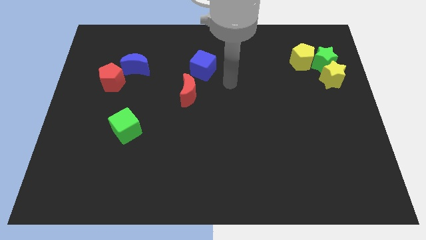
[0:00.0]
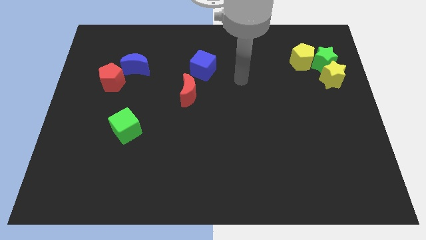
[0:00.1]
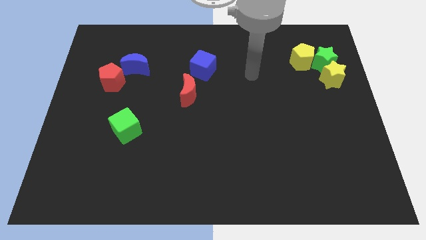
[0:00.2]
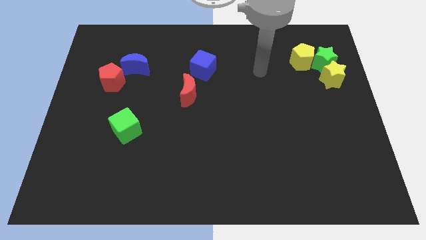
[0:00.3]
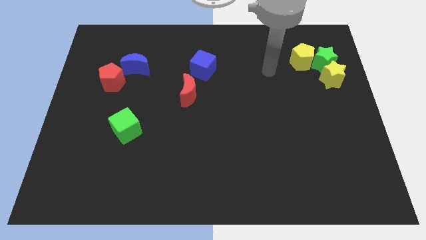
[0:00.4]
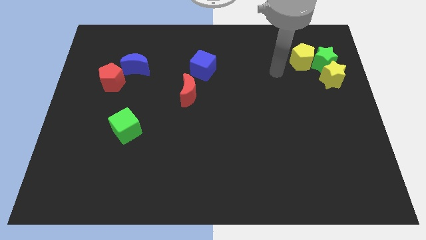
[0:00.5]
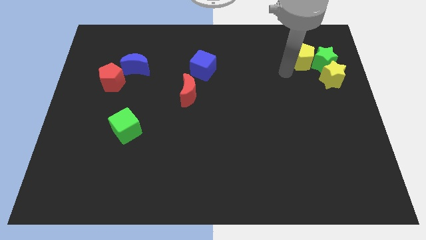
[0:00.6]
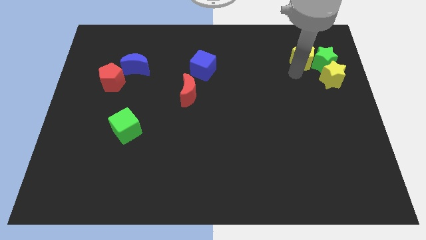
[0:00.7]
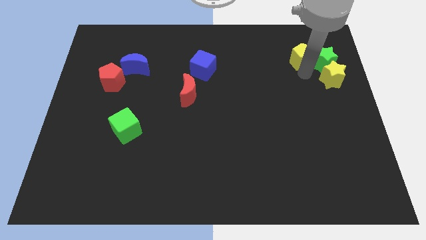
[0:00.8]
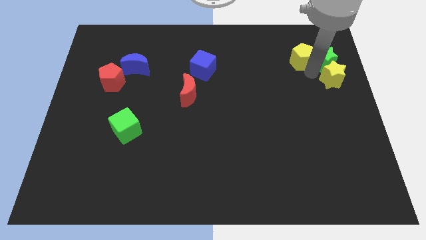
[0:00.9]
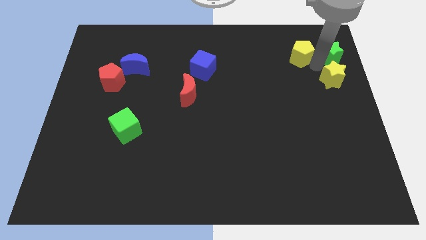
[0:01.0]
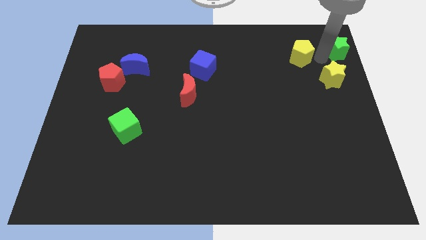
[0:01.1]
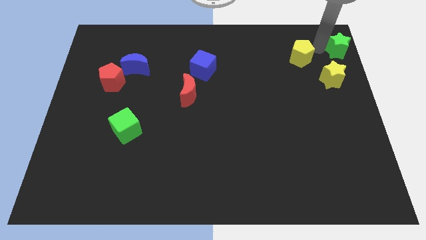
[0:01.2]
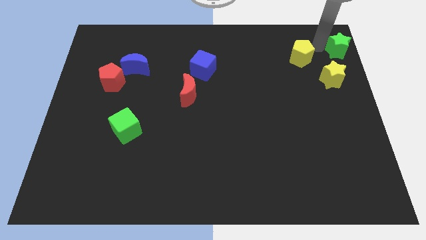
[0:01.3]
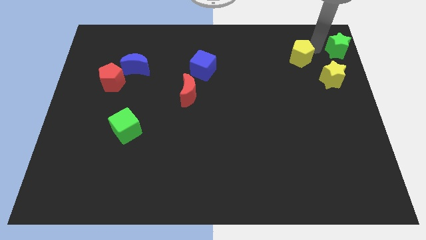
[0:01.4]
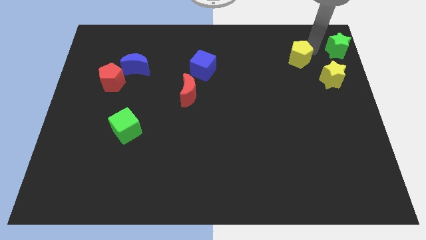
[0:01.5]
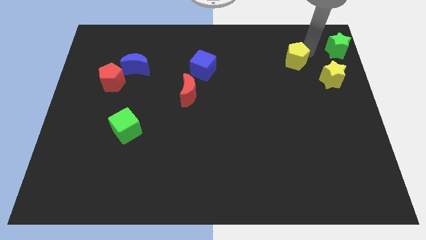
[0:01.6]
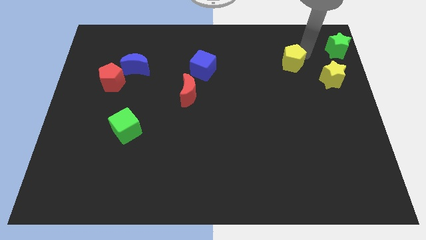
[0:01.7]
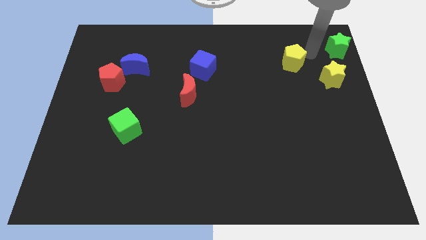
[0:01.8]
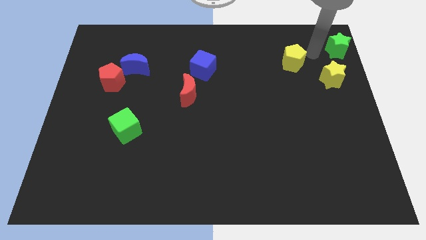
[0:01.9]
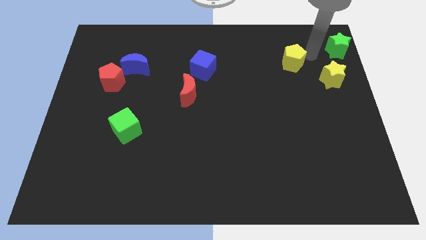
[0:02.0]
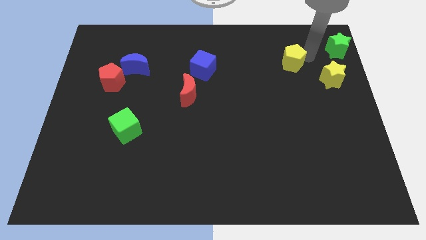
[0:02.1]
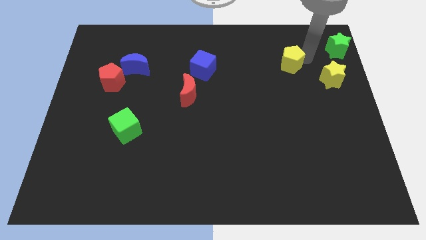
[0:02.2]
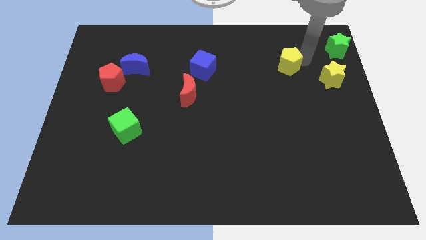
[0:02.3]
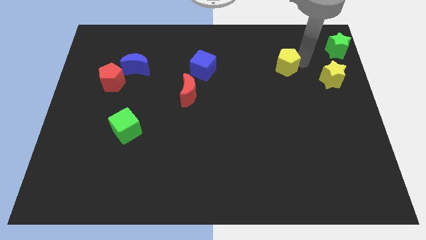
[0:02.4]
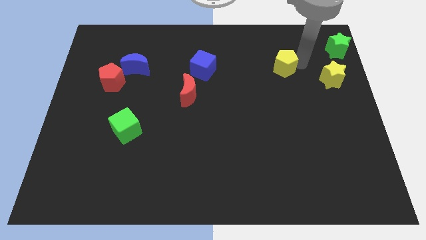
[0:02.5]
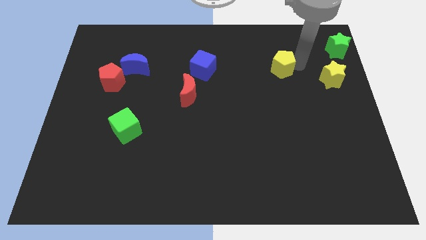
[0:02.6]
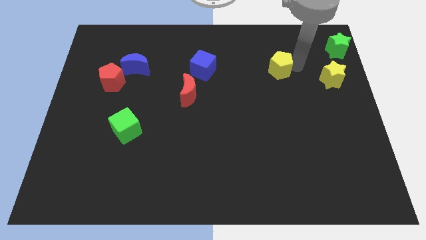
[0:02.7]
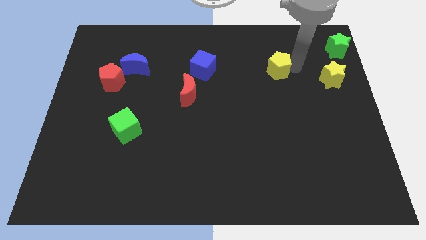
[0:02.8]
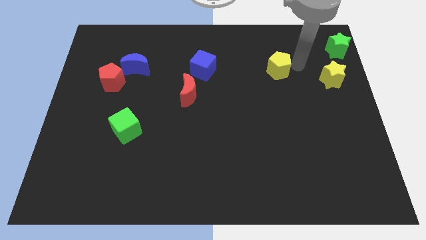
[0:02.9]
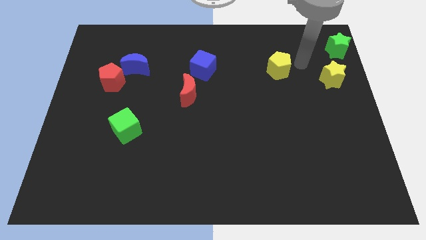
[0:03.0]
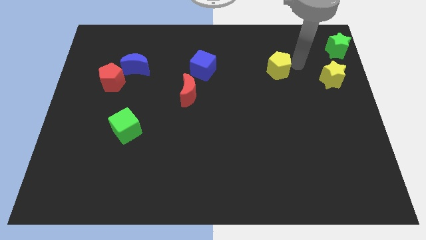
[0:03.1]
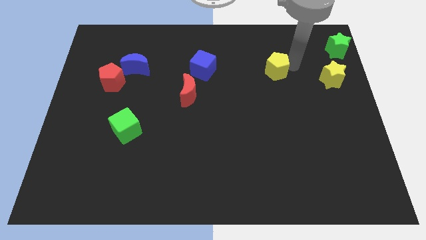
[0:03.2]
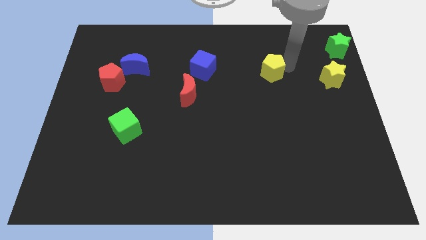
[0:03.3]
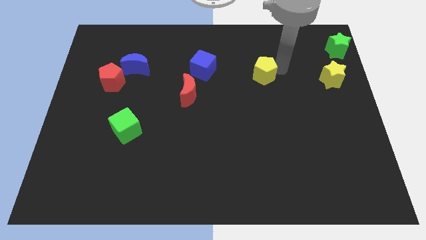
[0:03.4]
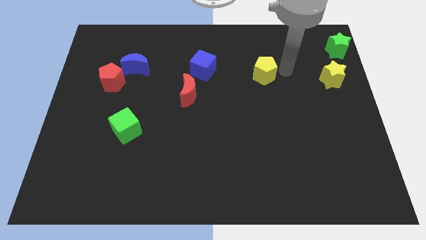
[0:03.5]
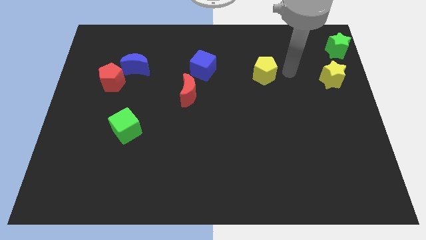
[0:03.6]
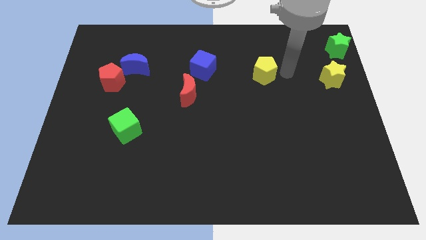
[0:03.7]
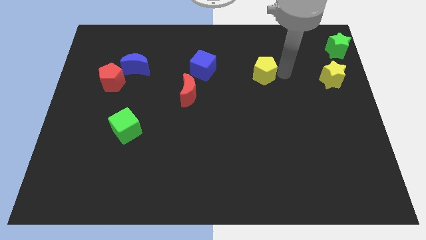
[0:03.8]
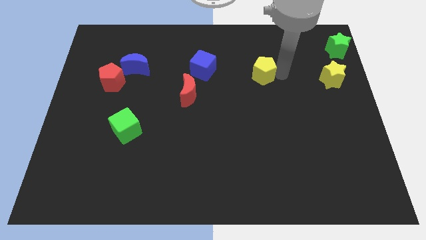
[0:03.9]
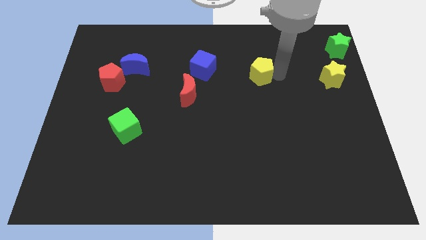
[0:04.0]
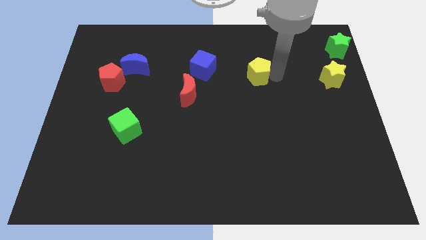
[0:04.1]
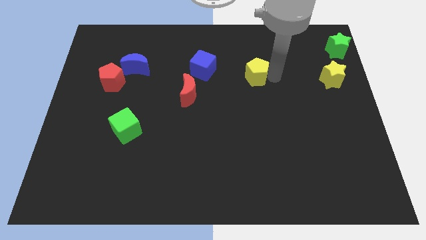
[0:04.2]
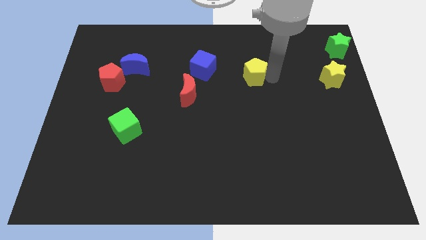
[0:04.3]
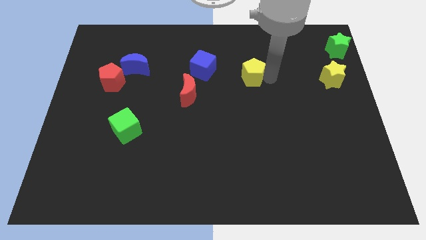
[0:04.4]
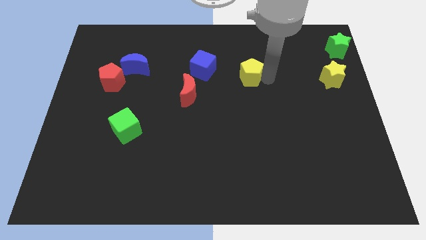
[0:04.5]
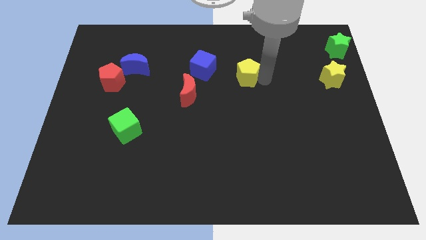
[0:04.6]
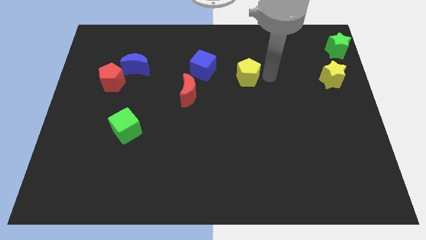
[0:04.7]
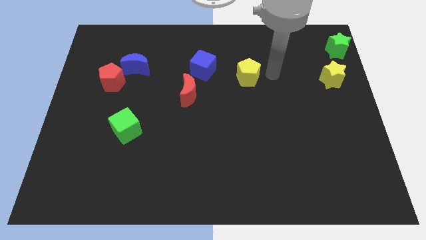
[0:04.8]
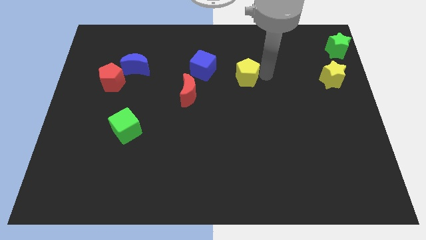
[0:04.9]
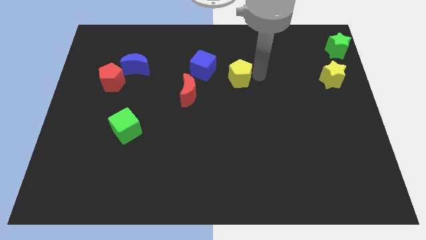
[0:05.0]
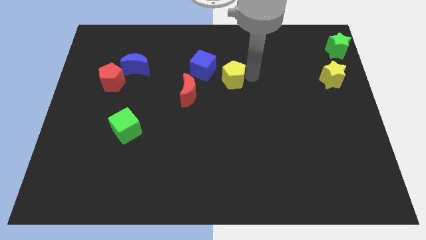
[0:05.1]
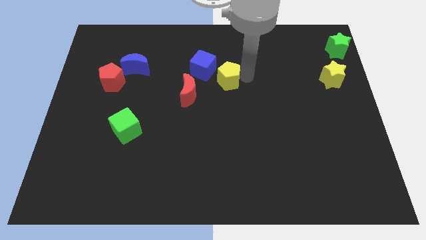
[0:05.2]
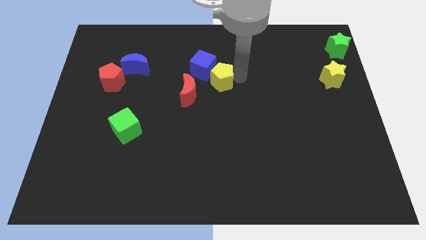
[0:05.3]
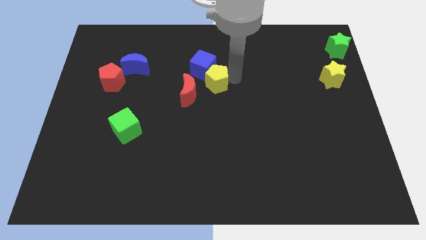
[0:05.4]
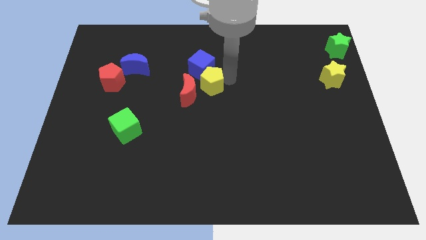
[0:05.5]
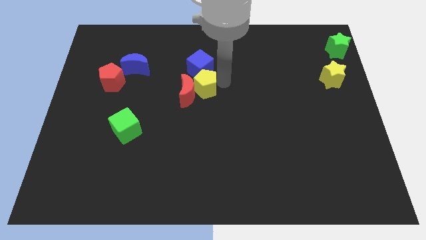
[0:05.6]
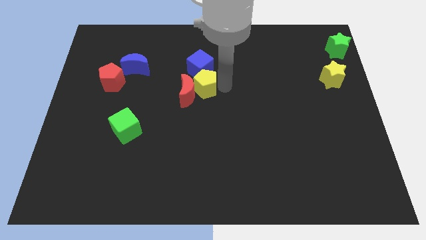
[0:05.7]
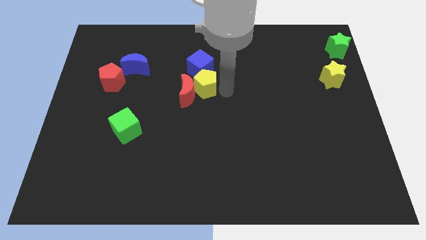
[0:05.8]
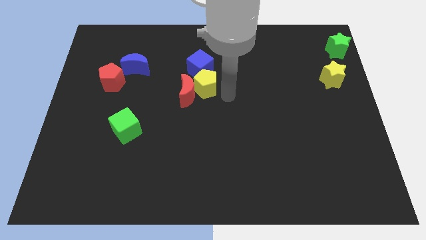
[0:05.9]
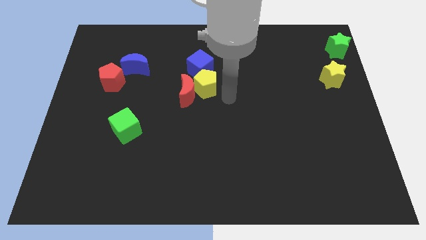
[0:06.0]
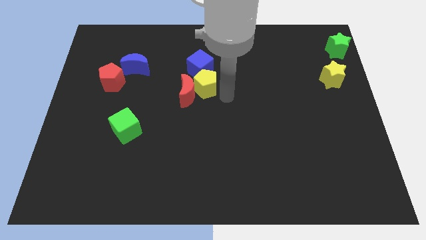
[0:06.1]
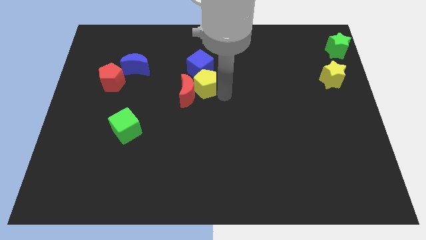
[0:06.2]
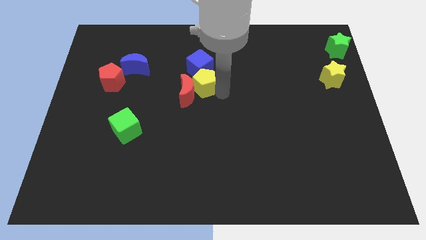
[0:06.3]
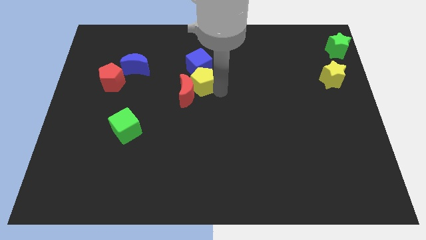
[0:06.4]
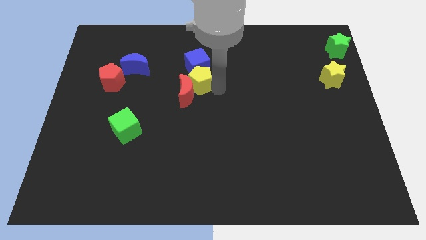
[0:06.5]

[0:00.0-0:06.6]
slide the yellow pentagon diagonally down and to the left of the blue cube

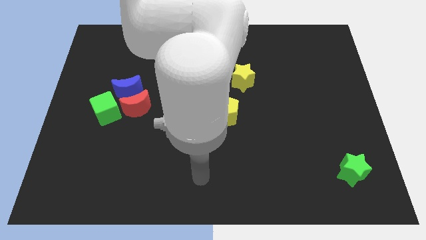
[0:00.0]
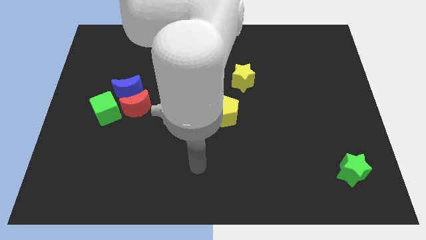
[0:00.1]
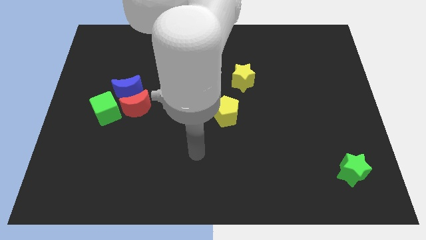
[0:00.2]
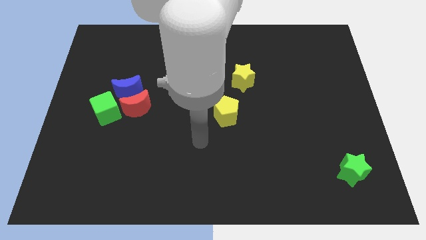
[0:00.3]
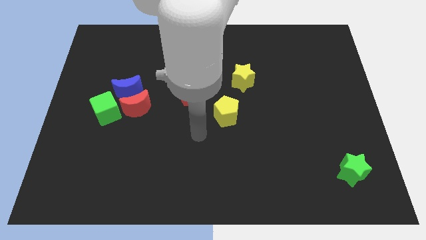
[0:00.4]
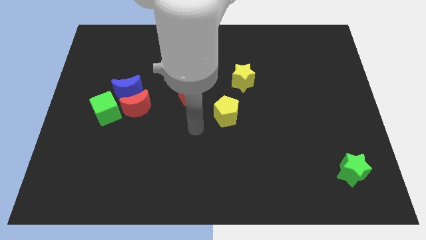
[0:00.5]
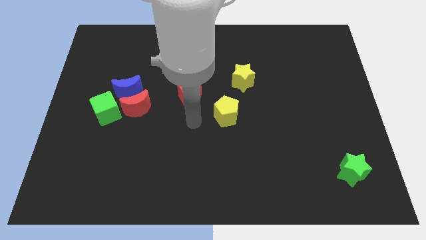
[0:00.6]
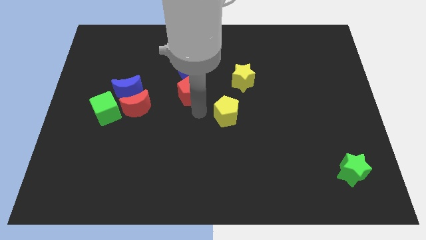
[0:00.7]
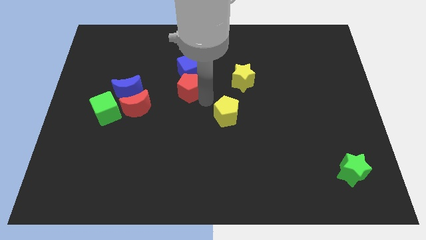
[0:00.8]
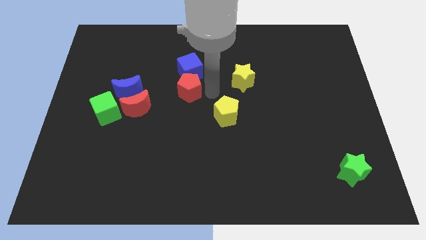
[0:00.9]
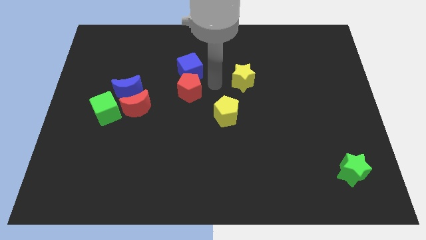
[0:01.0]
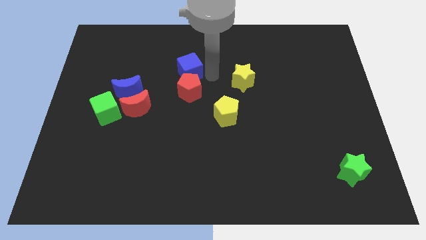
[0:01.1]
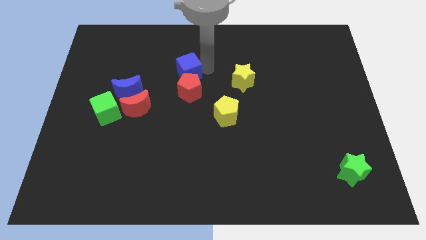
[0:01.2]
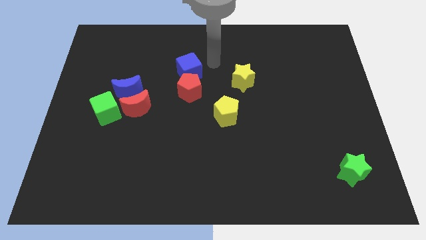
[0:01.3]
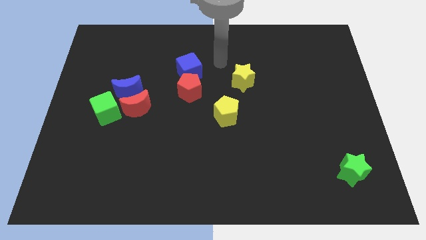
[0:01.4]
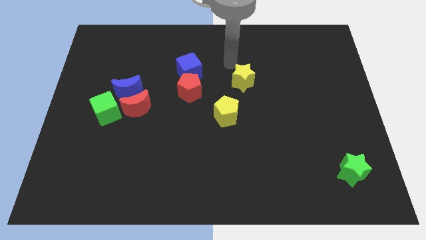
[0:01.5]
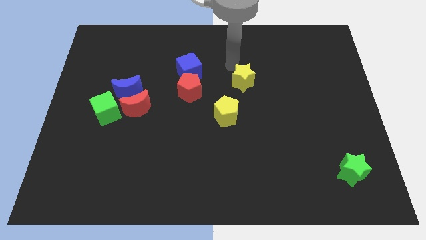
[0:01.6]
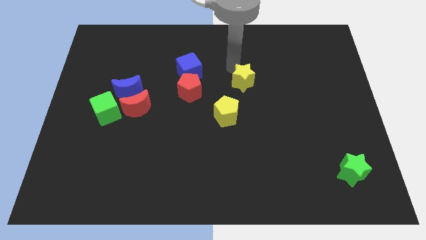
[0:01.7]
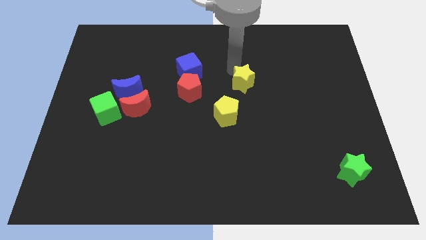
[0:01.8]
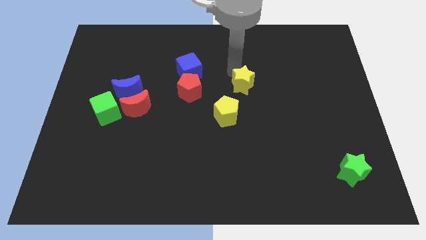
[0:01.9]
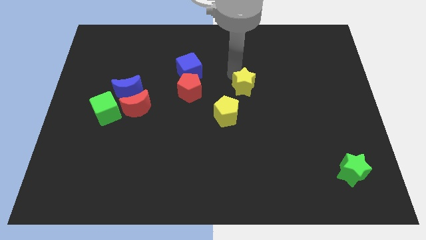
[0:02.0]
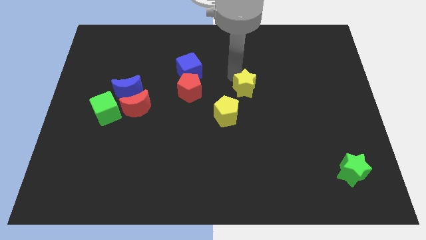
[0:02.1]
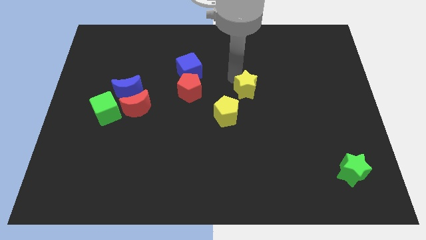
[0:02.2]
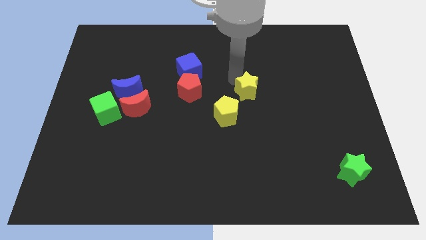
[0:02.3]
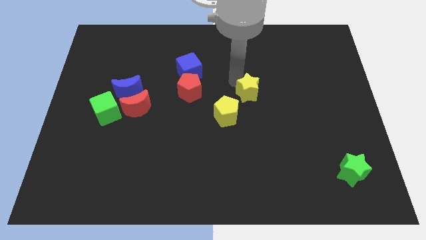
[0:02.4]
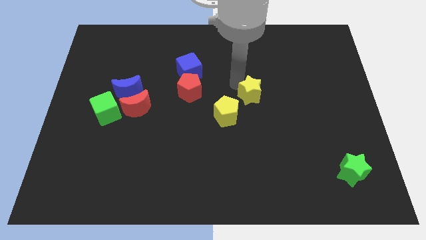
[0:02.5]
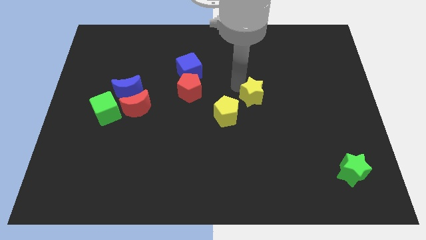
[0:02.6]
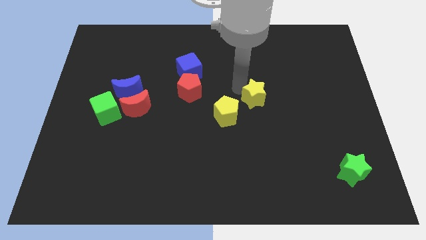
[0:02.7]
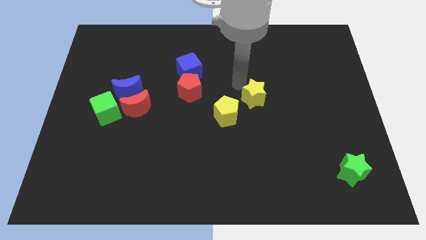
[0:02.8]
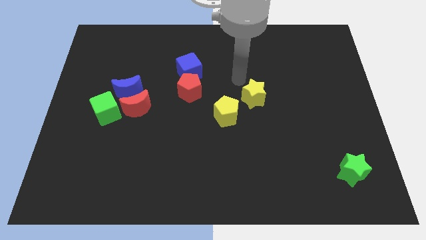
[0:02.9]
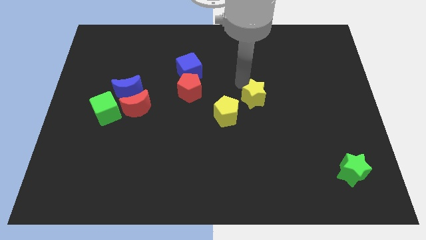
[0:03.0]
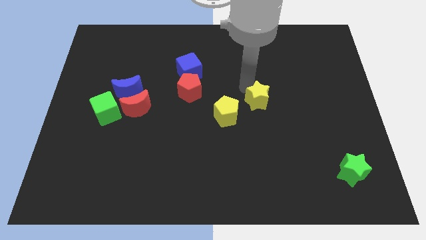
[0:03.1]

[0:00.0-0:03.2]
put the yellow star to the right side of the yellow pentagon
